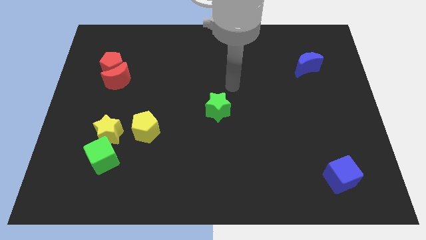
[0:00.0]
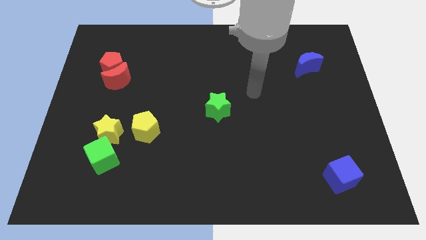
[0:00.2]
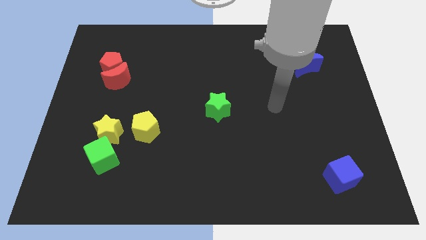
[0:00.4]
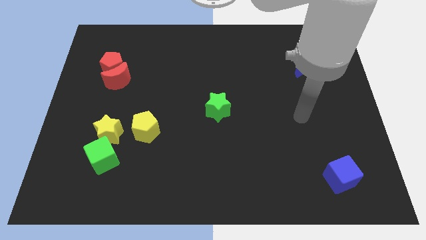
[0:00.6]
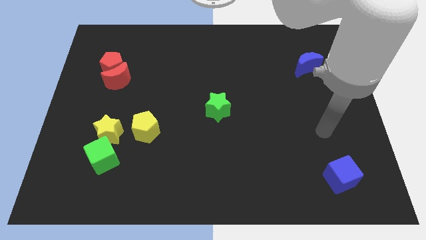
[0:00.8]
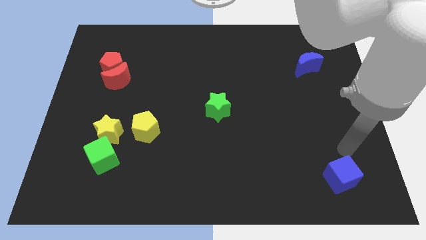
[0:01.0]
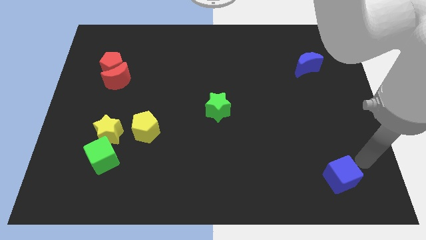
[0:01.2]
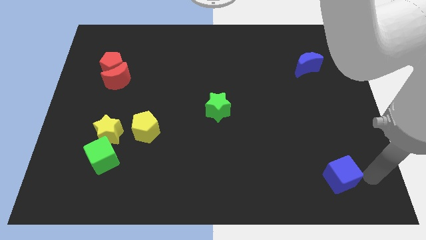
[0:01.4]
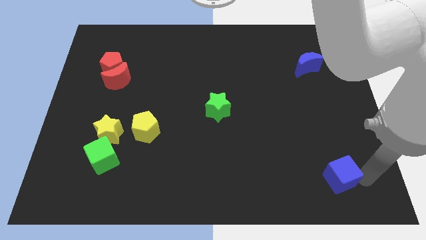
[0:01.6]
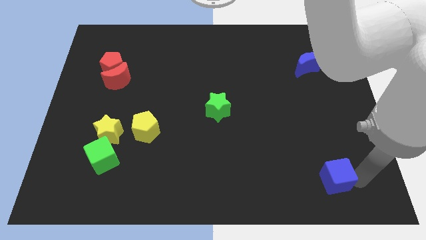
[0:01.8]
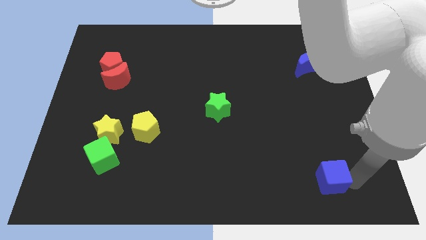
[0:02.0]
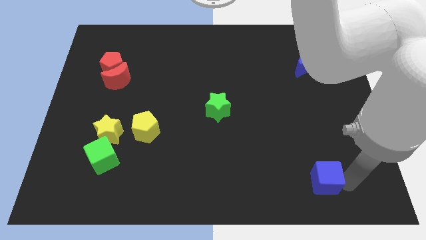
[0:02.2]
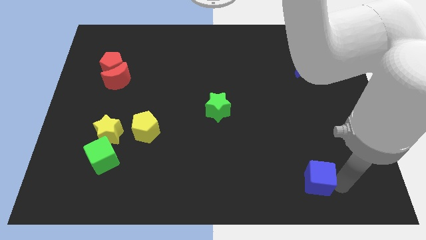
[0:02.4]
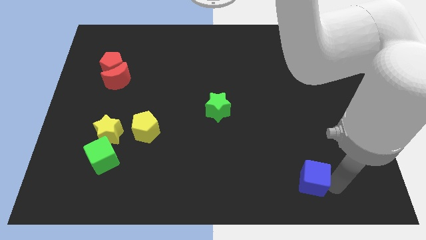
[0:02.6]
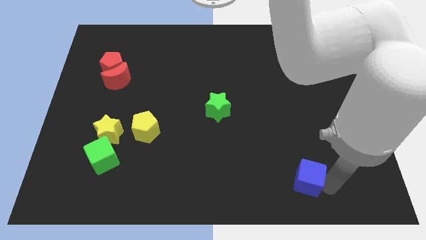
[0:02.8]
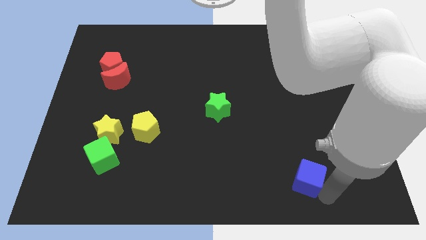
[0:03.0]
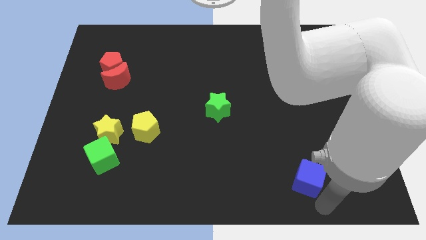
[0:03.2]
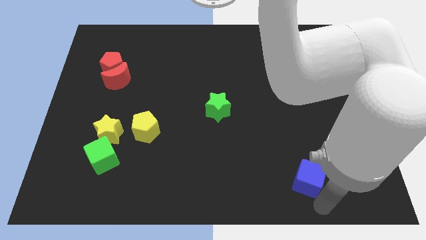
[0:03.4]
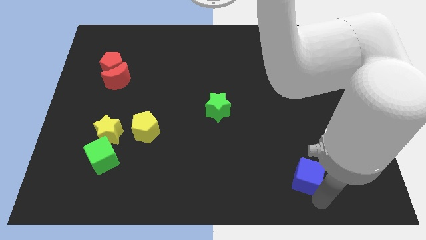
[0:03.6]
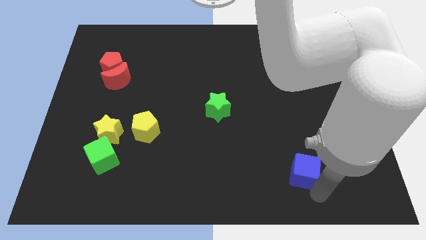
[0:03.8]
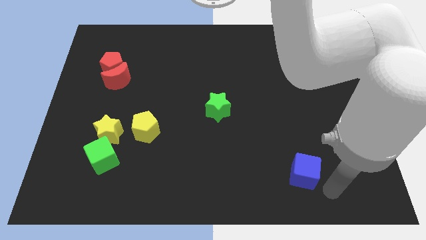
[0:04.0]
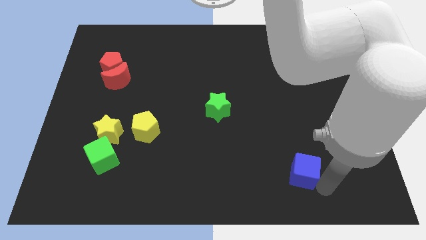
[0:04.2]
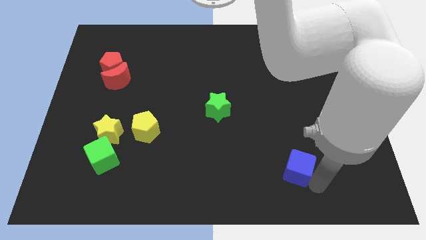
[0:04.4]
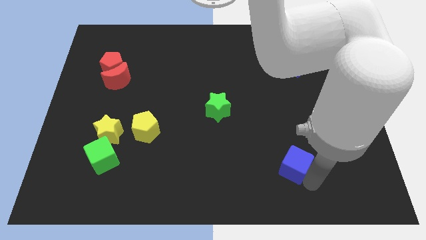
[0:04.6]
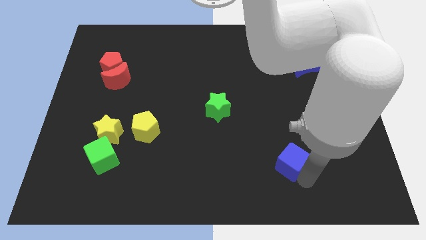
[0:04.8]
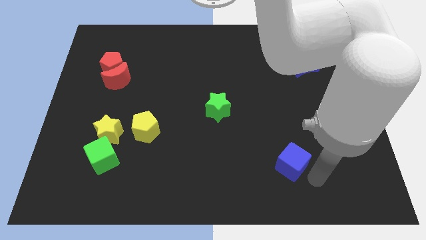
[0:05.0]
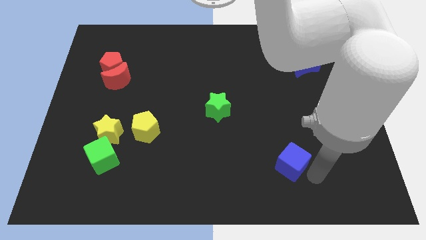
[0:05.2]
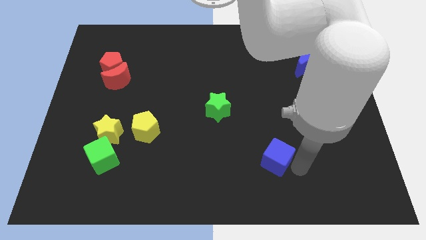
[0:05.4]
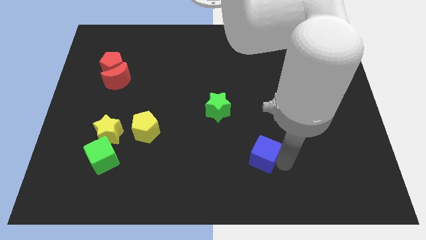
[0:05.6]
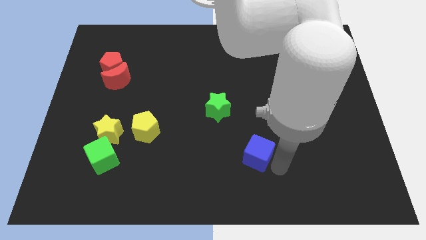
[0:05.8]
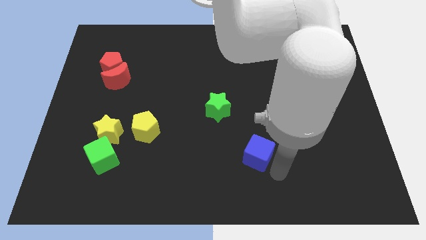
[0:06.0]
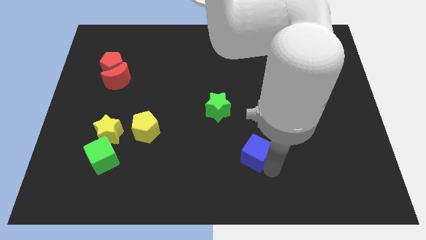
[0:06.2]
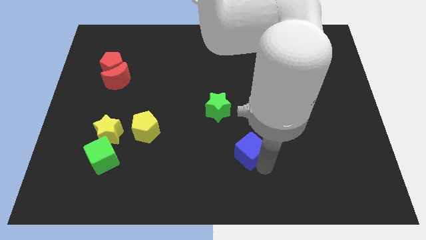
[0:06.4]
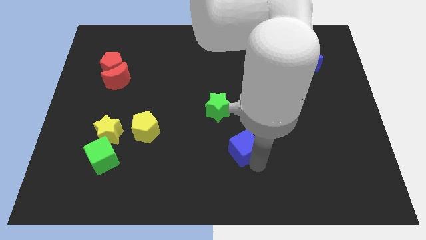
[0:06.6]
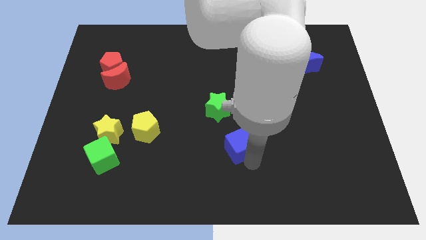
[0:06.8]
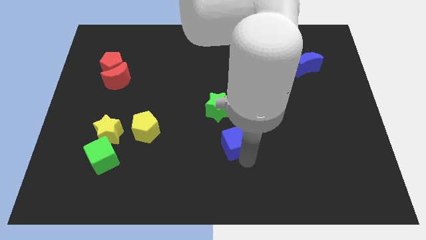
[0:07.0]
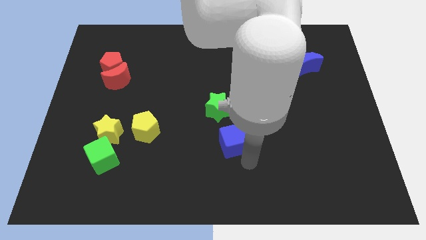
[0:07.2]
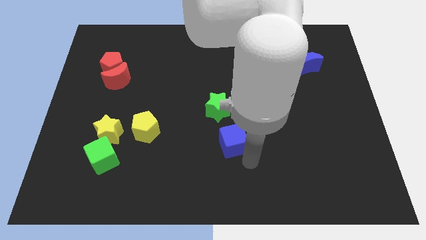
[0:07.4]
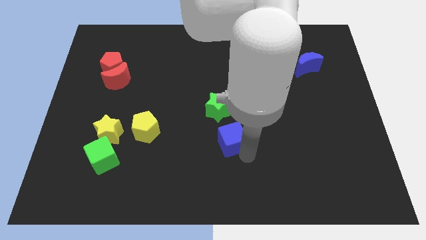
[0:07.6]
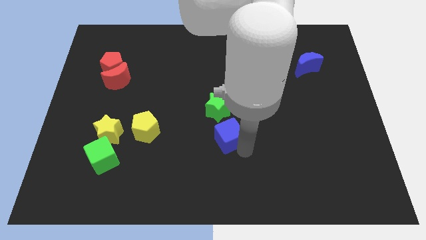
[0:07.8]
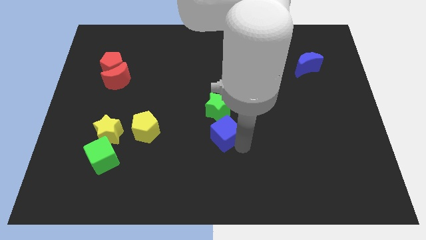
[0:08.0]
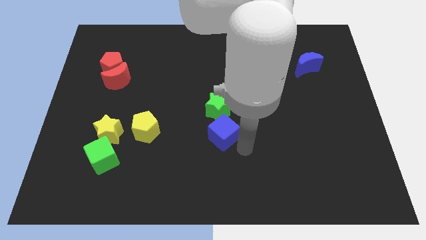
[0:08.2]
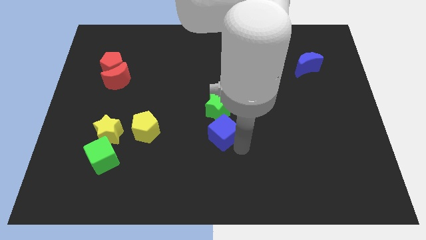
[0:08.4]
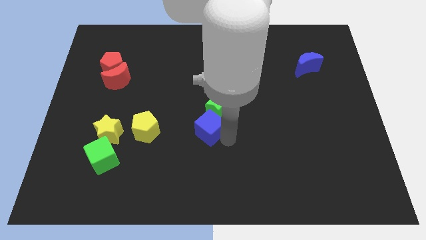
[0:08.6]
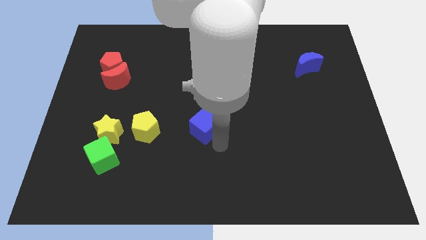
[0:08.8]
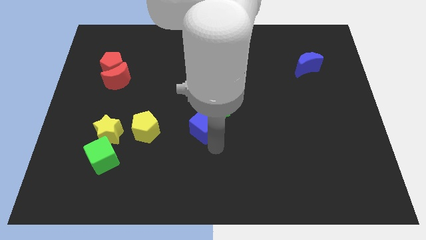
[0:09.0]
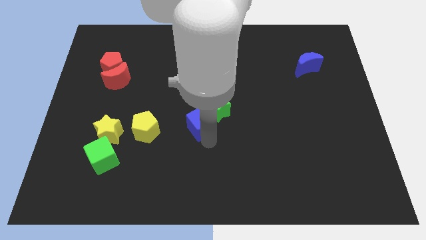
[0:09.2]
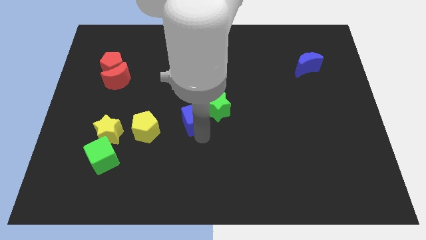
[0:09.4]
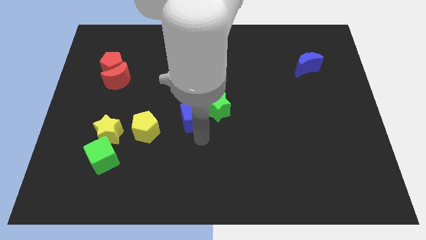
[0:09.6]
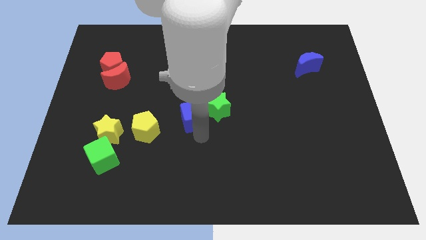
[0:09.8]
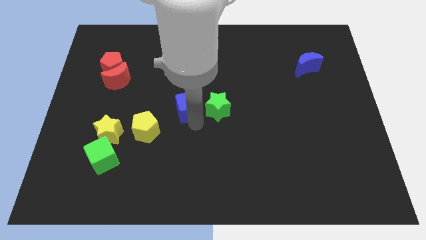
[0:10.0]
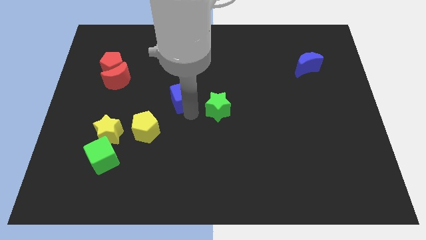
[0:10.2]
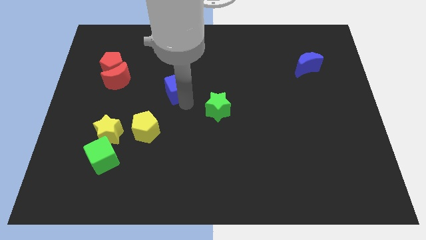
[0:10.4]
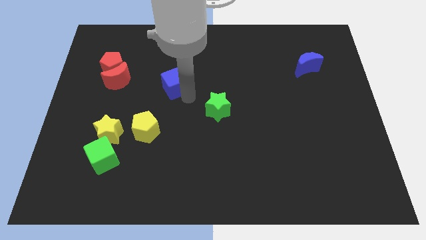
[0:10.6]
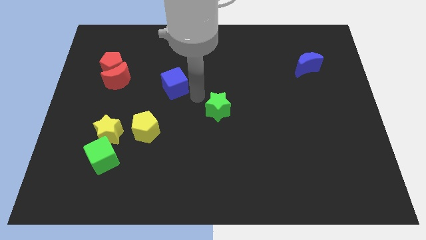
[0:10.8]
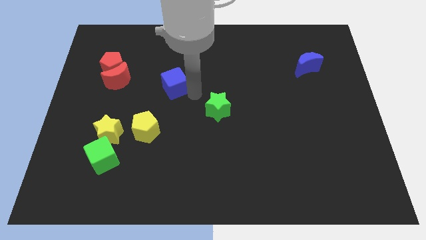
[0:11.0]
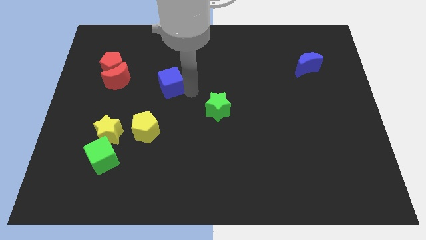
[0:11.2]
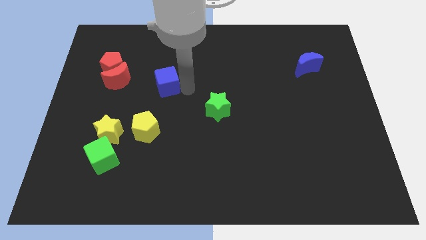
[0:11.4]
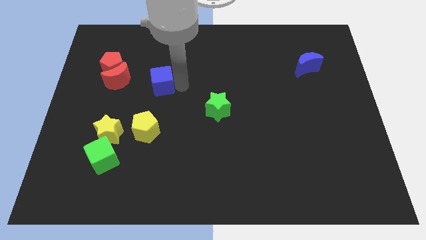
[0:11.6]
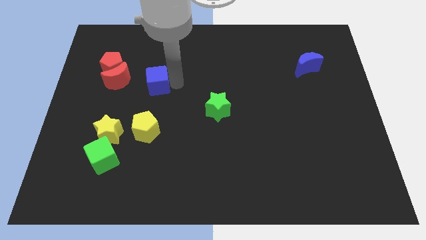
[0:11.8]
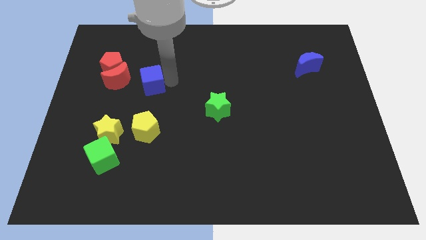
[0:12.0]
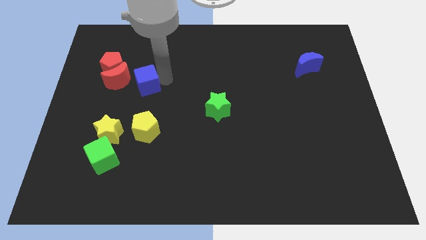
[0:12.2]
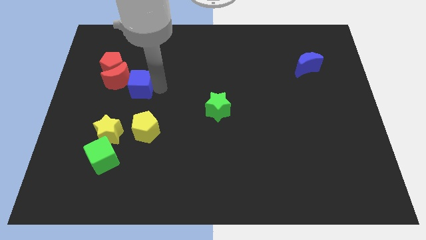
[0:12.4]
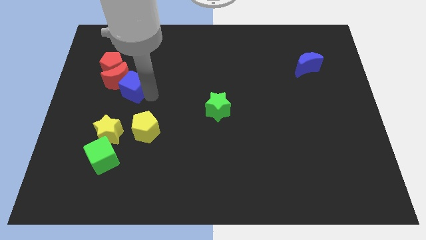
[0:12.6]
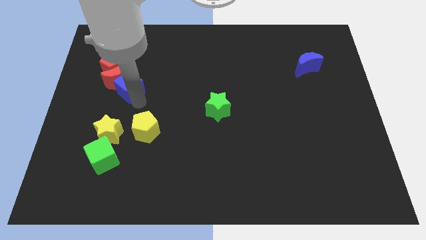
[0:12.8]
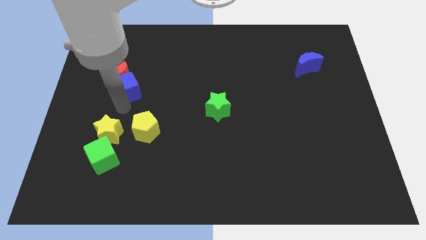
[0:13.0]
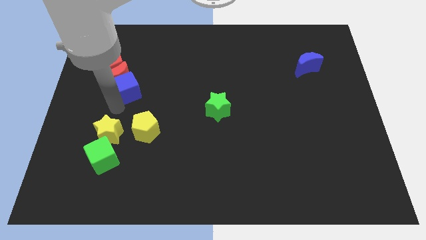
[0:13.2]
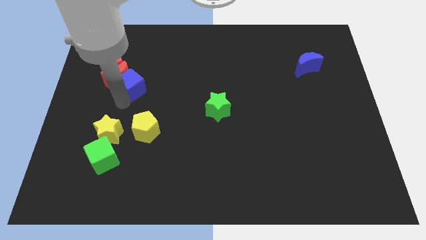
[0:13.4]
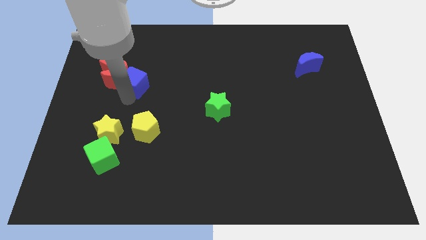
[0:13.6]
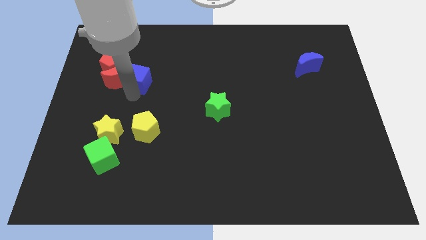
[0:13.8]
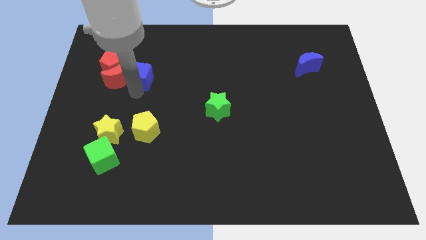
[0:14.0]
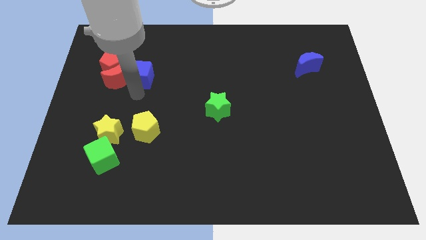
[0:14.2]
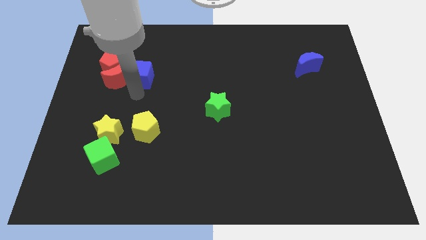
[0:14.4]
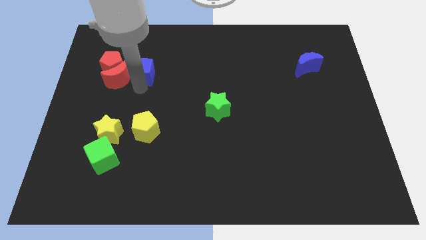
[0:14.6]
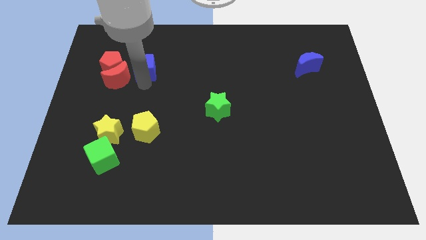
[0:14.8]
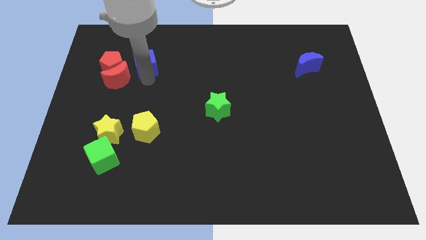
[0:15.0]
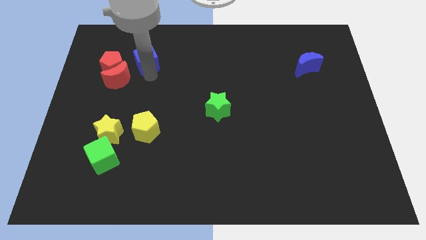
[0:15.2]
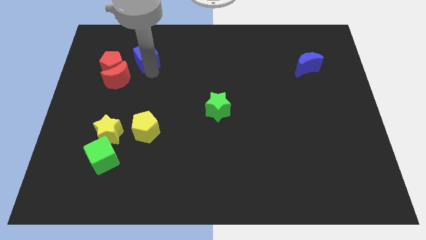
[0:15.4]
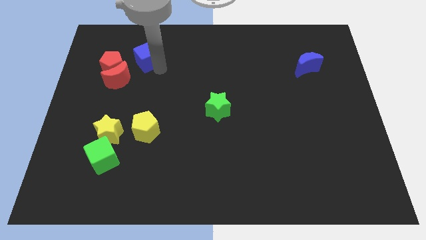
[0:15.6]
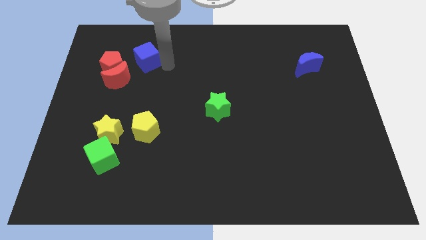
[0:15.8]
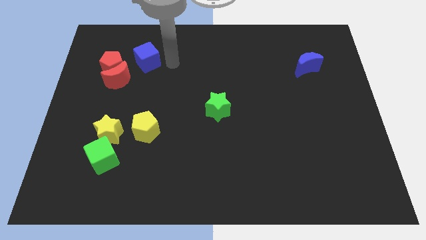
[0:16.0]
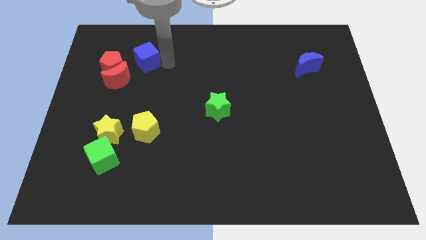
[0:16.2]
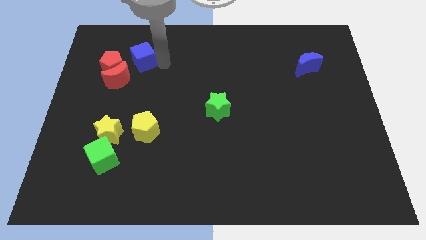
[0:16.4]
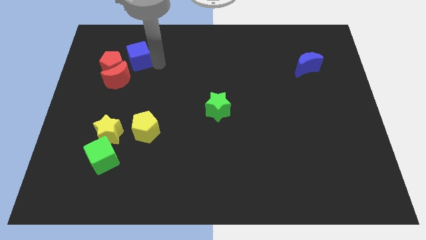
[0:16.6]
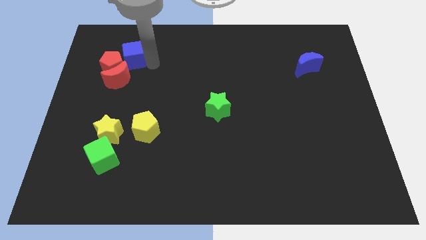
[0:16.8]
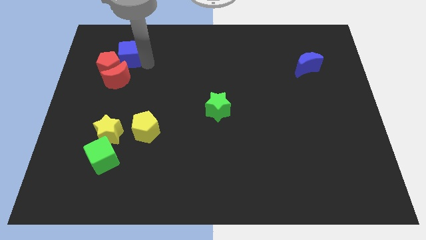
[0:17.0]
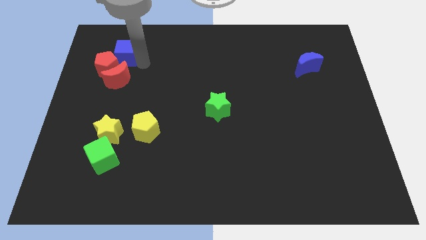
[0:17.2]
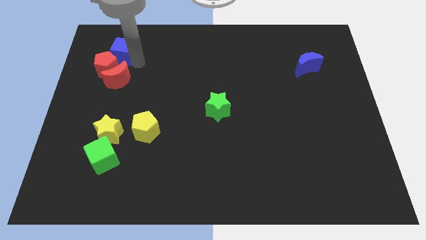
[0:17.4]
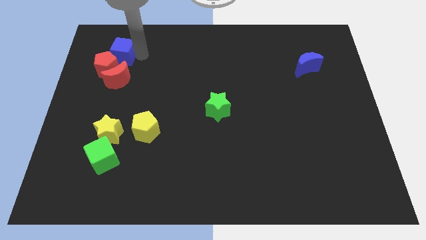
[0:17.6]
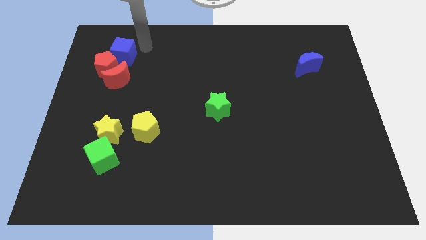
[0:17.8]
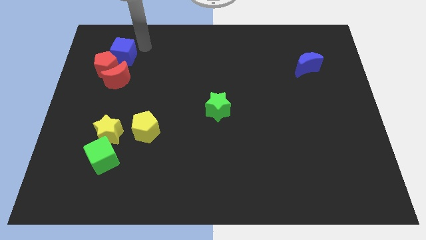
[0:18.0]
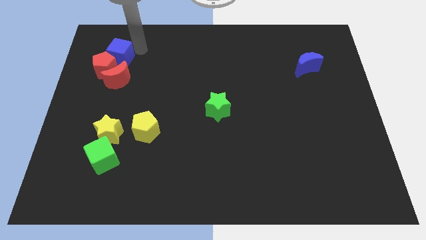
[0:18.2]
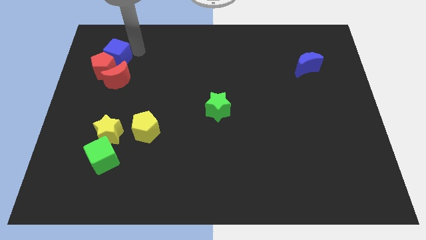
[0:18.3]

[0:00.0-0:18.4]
move the blue cube to the top left of the red moon
